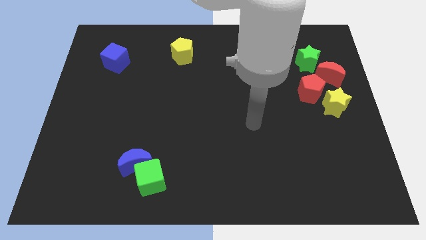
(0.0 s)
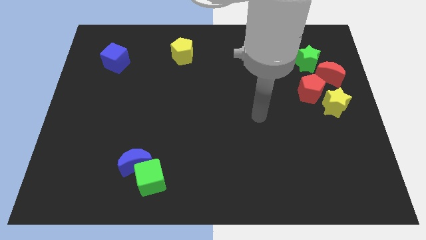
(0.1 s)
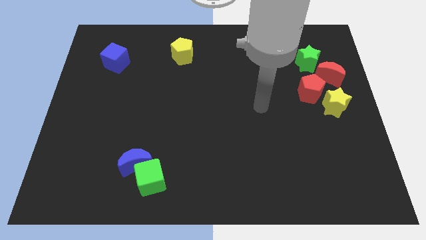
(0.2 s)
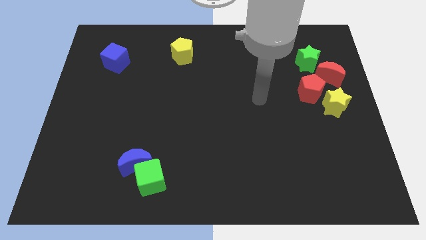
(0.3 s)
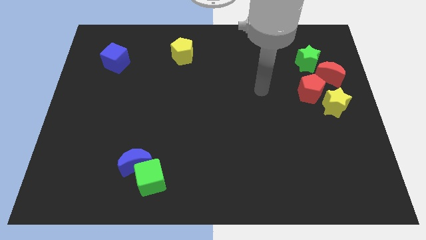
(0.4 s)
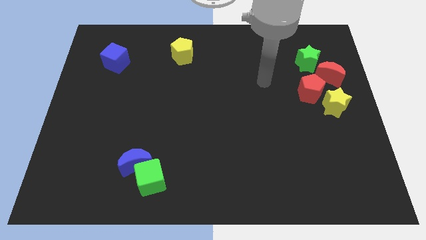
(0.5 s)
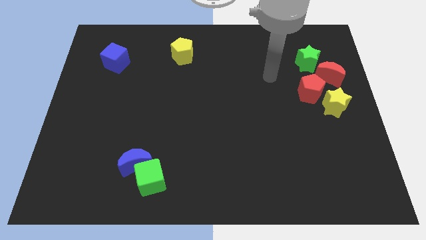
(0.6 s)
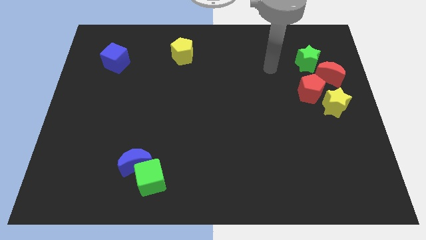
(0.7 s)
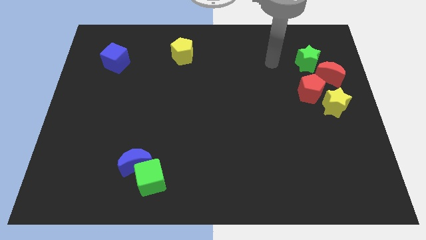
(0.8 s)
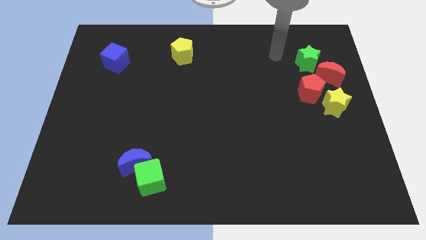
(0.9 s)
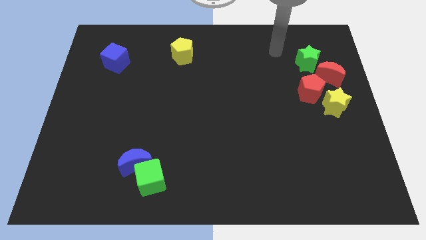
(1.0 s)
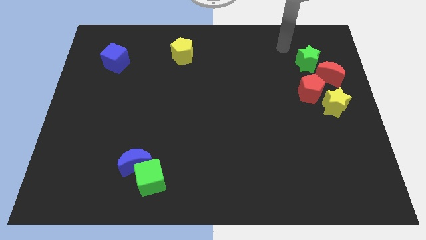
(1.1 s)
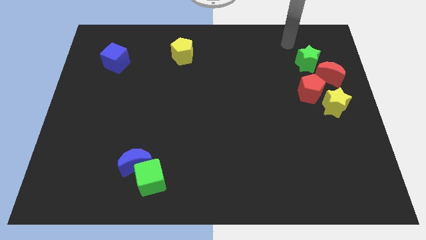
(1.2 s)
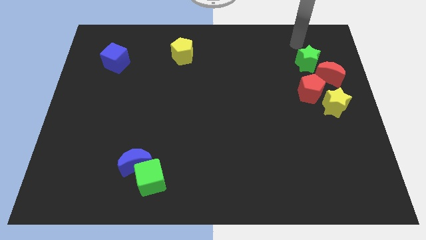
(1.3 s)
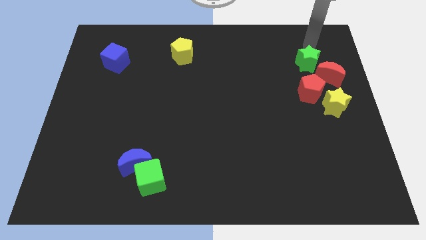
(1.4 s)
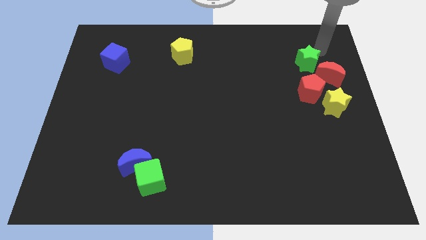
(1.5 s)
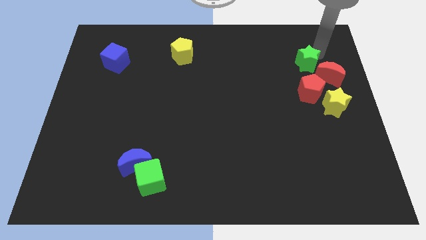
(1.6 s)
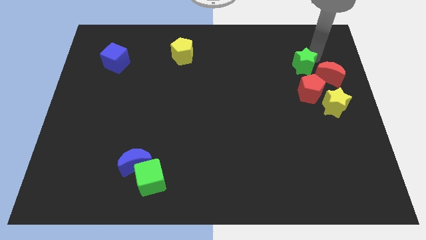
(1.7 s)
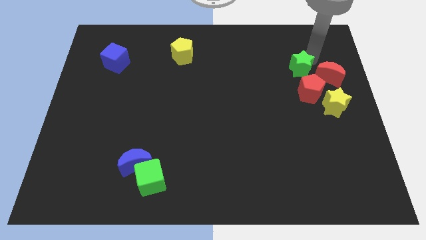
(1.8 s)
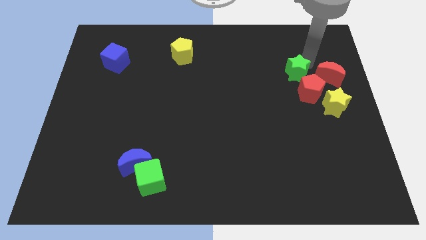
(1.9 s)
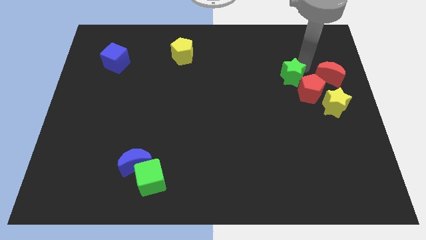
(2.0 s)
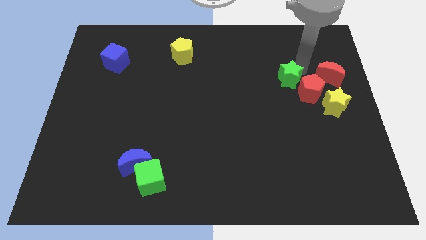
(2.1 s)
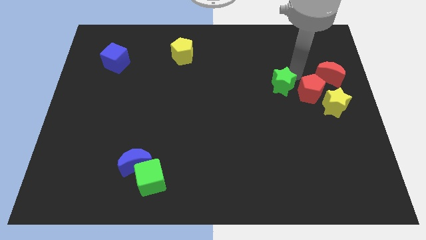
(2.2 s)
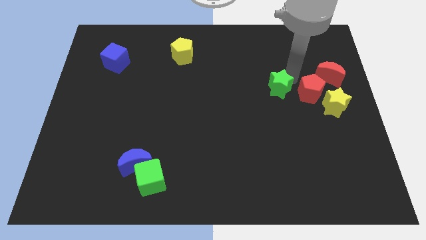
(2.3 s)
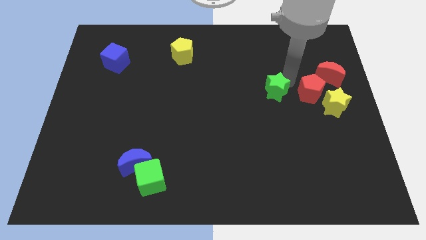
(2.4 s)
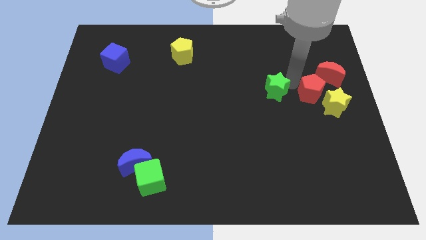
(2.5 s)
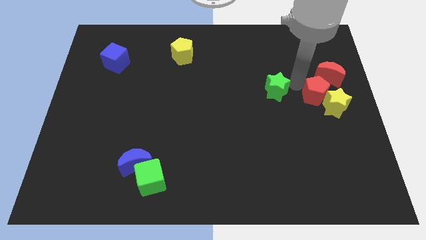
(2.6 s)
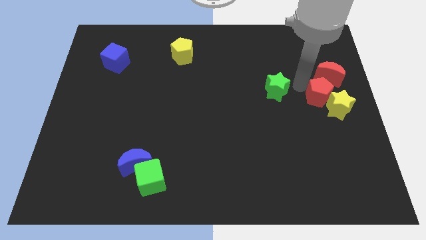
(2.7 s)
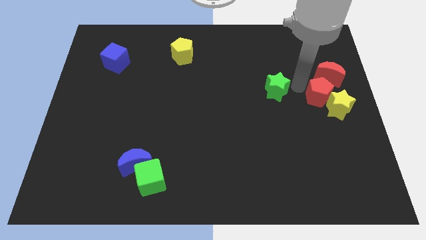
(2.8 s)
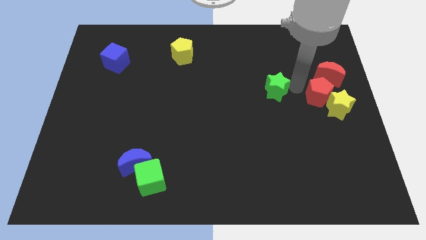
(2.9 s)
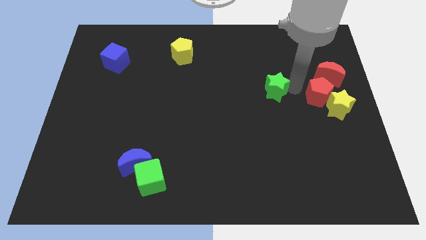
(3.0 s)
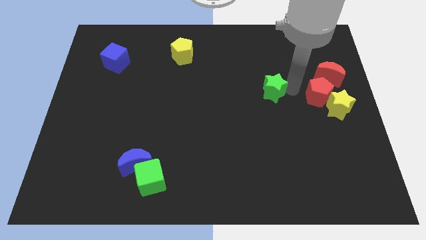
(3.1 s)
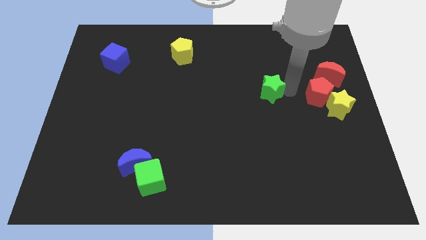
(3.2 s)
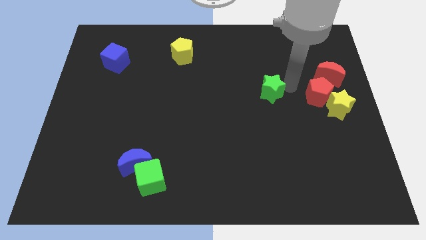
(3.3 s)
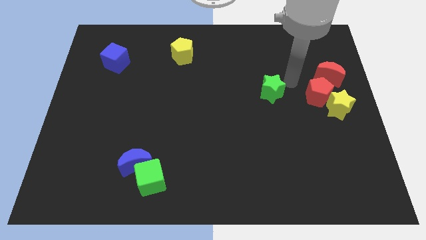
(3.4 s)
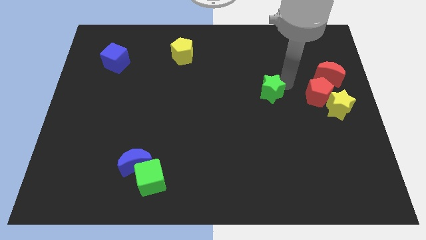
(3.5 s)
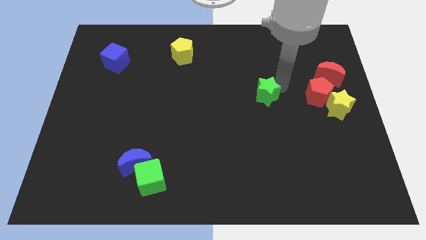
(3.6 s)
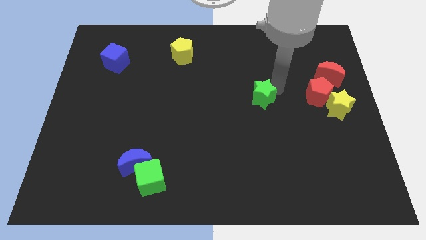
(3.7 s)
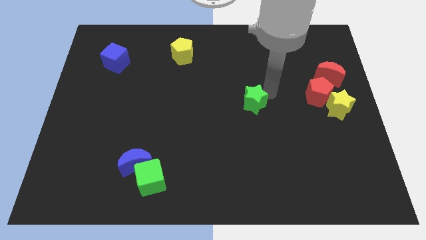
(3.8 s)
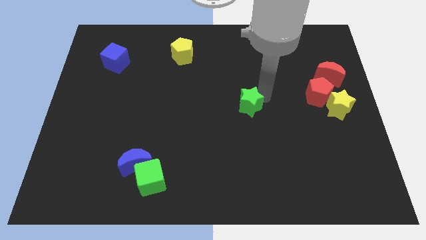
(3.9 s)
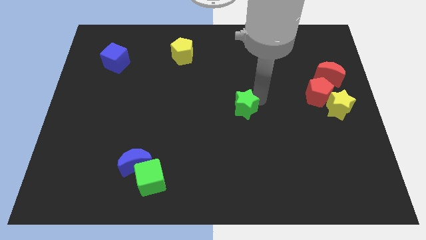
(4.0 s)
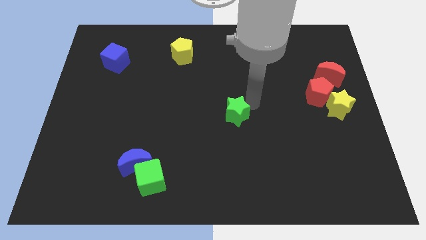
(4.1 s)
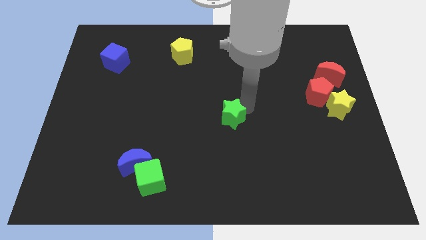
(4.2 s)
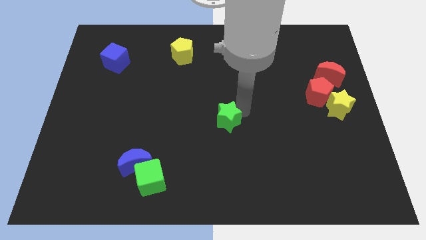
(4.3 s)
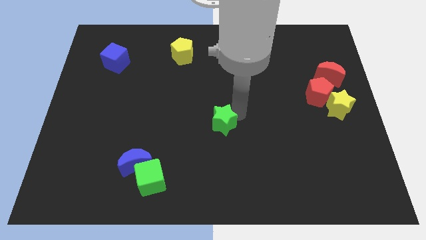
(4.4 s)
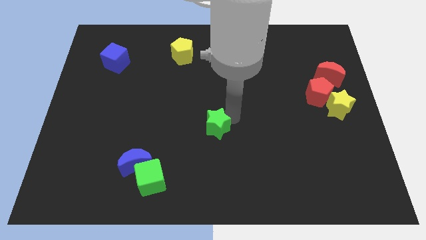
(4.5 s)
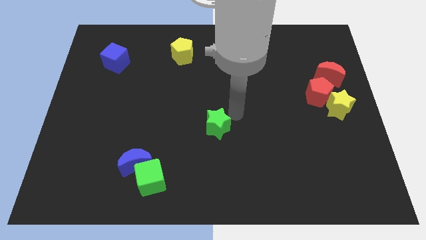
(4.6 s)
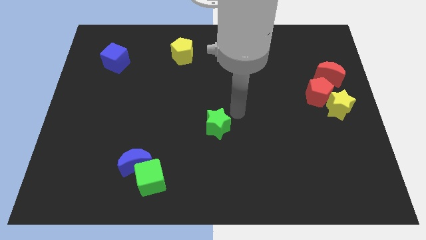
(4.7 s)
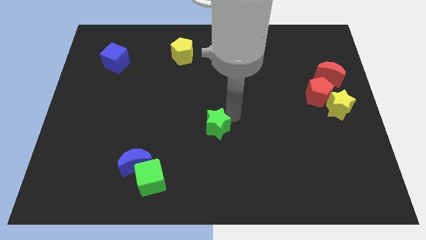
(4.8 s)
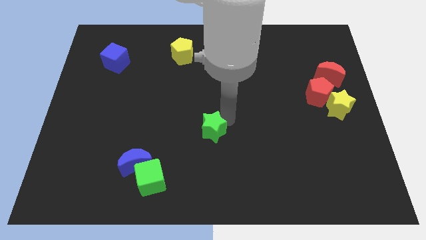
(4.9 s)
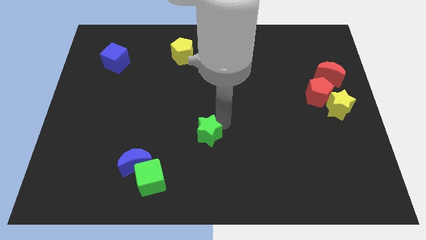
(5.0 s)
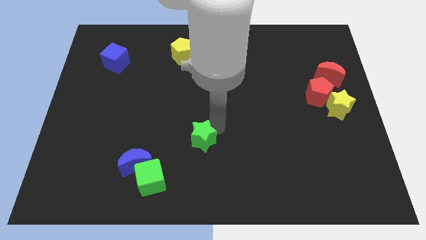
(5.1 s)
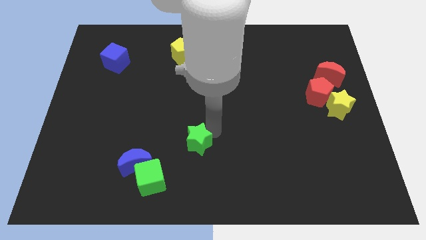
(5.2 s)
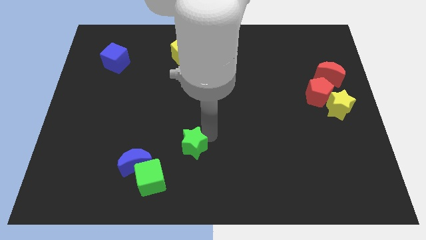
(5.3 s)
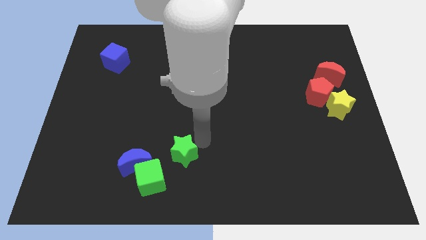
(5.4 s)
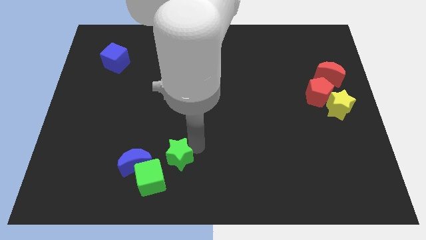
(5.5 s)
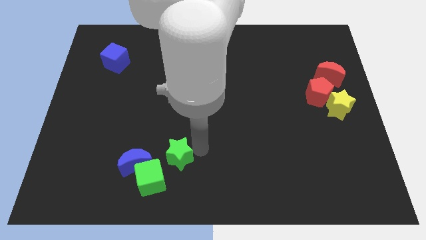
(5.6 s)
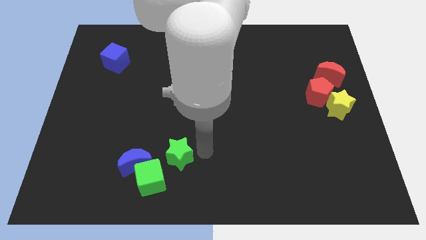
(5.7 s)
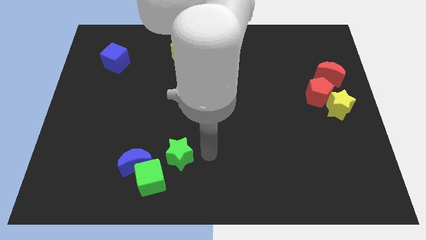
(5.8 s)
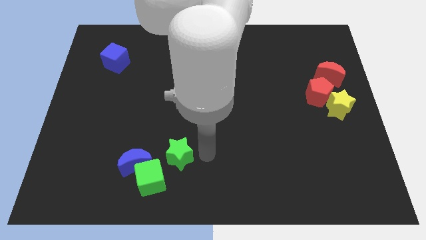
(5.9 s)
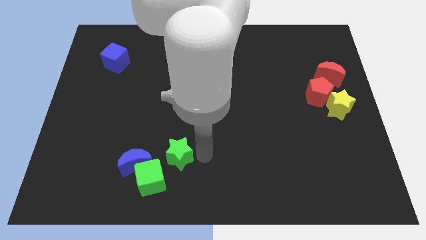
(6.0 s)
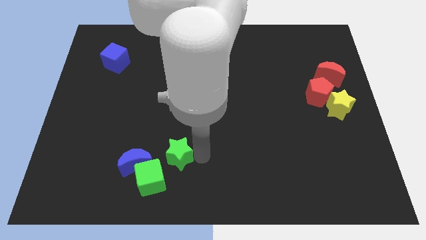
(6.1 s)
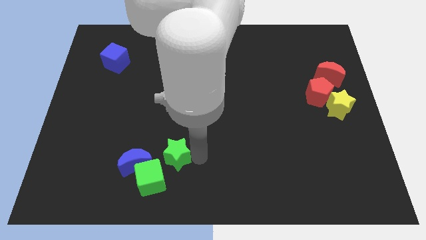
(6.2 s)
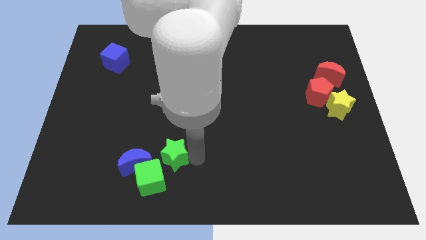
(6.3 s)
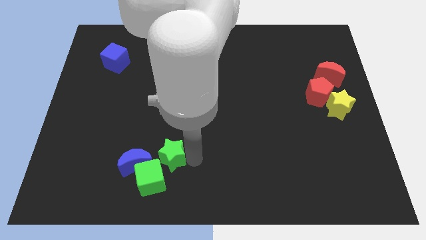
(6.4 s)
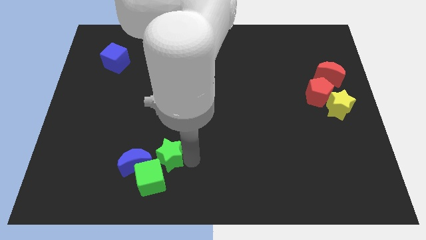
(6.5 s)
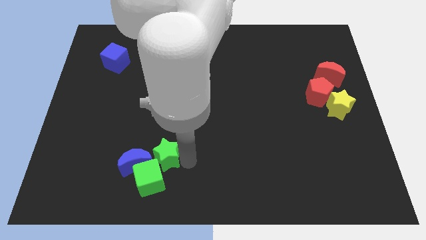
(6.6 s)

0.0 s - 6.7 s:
put the green star next to the blue moon

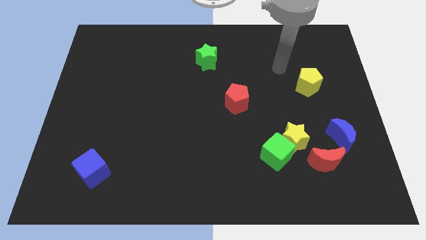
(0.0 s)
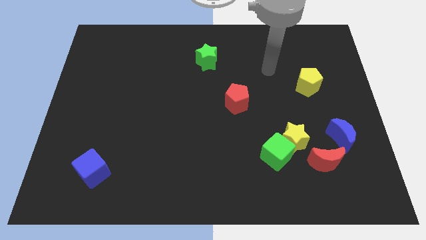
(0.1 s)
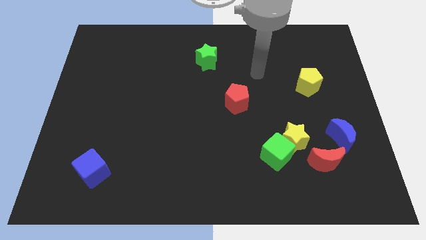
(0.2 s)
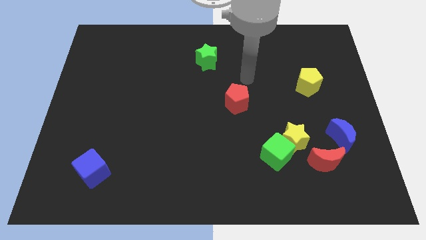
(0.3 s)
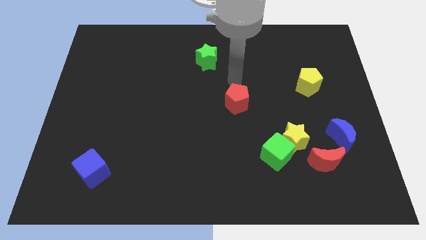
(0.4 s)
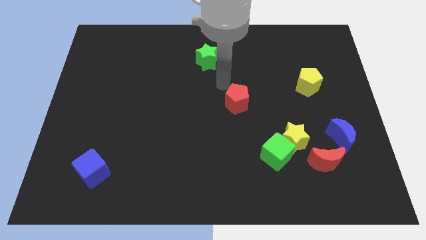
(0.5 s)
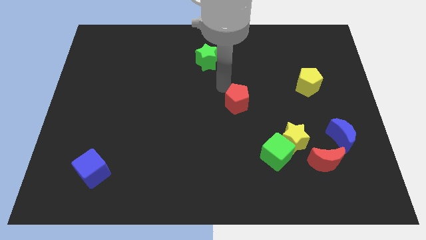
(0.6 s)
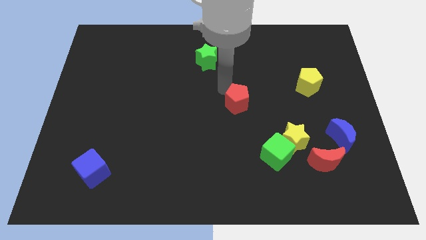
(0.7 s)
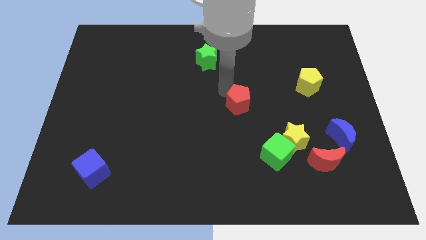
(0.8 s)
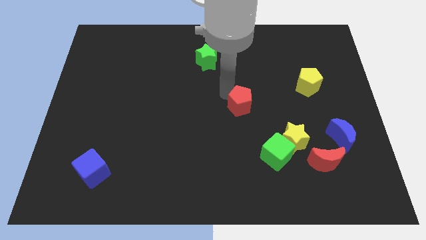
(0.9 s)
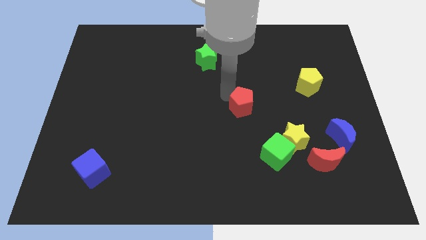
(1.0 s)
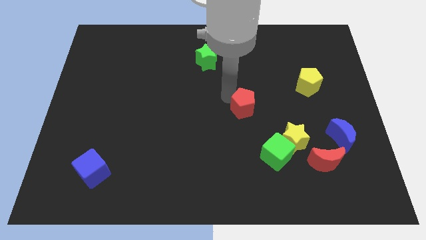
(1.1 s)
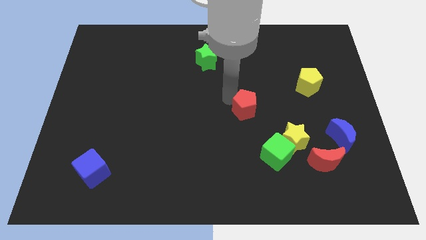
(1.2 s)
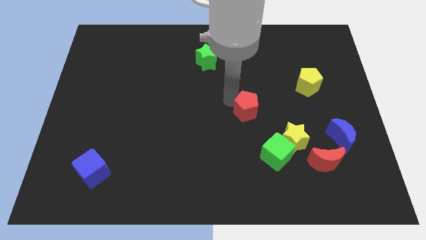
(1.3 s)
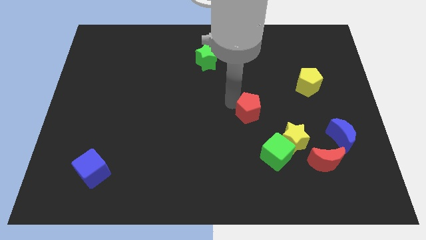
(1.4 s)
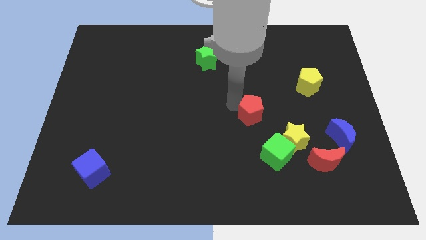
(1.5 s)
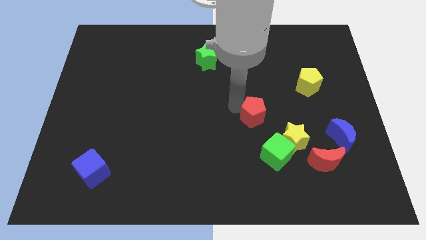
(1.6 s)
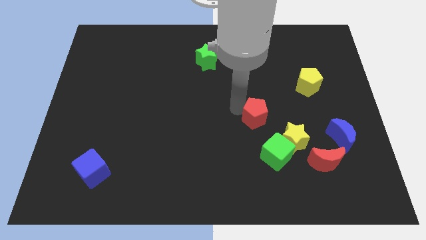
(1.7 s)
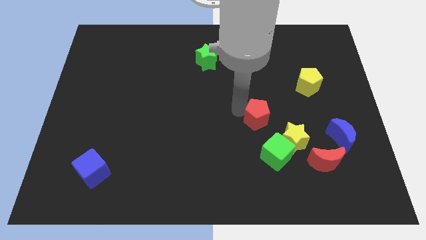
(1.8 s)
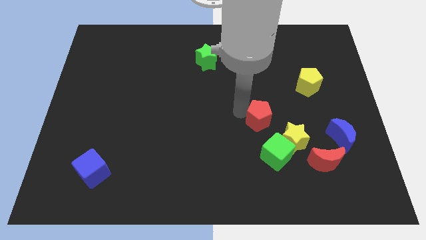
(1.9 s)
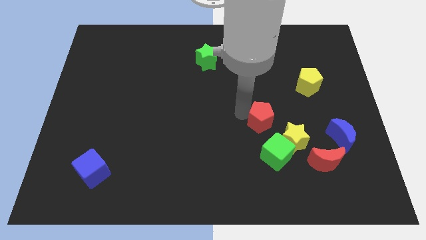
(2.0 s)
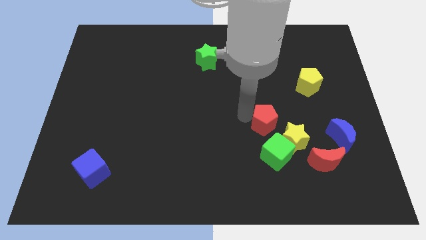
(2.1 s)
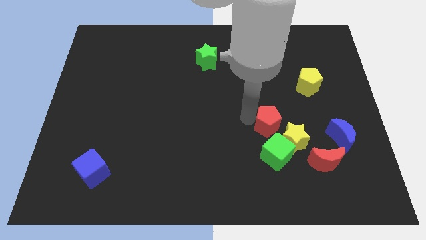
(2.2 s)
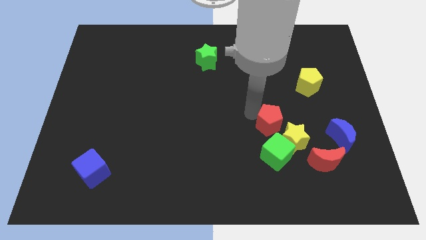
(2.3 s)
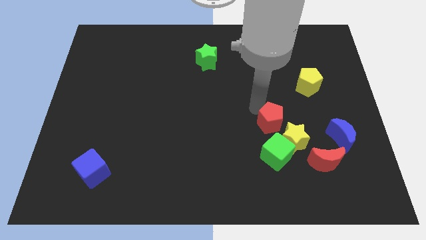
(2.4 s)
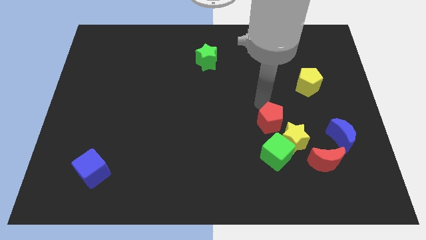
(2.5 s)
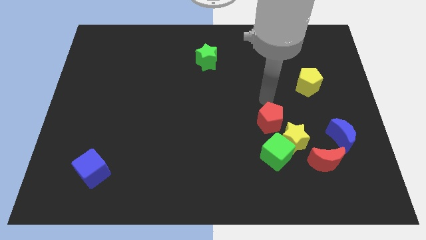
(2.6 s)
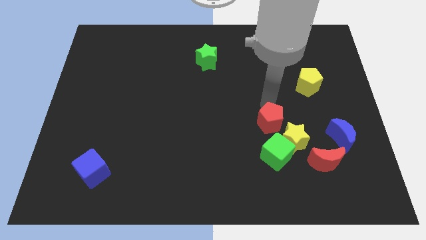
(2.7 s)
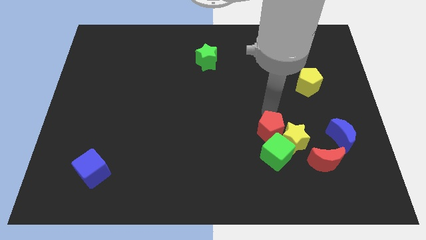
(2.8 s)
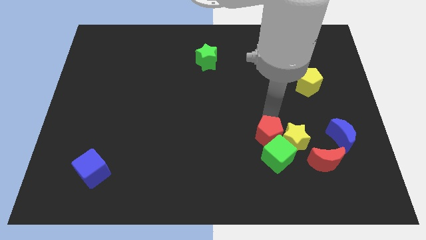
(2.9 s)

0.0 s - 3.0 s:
put the red pentagon to the green cube
